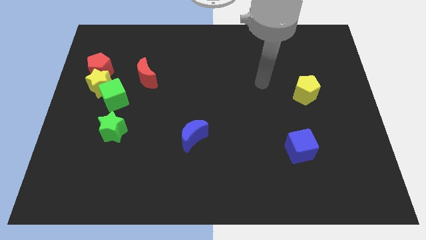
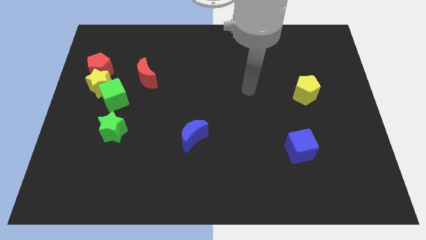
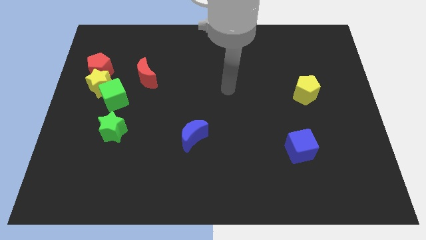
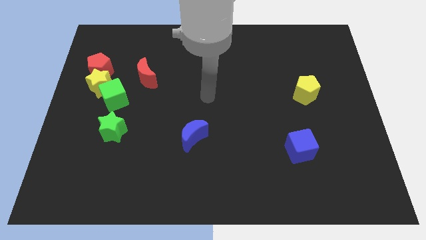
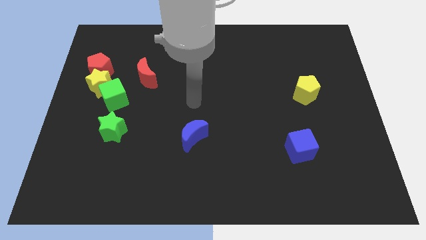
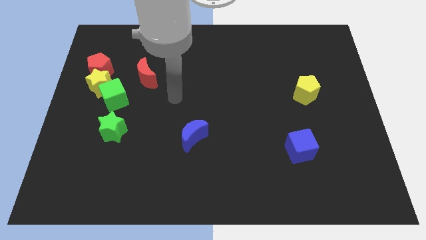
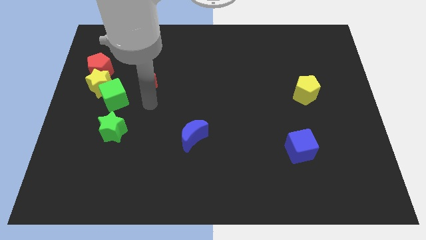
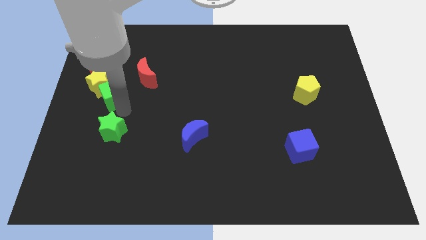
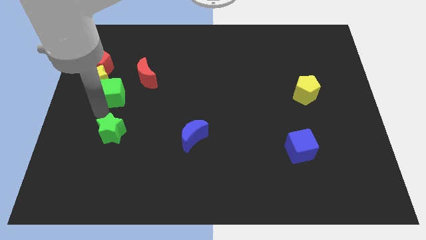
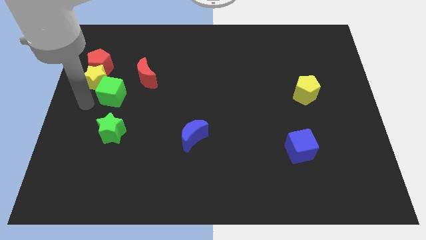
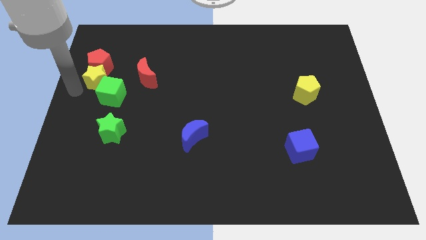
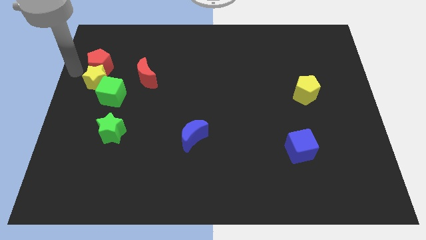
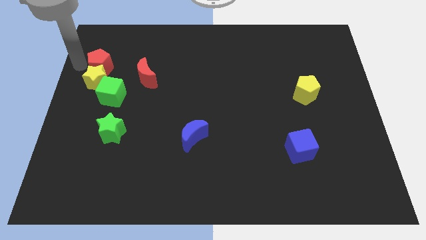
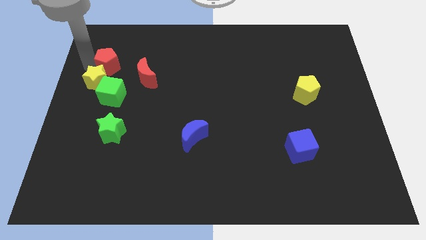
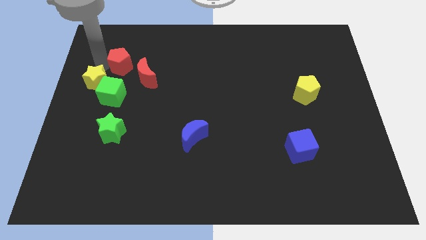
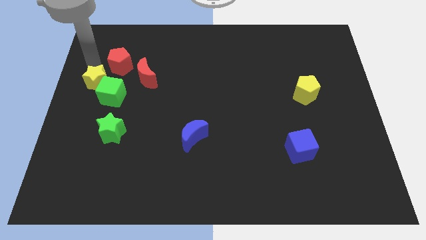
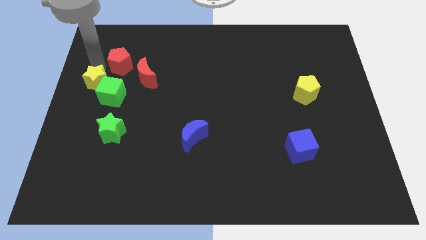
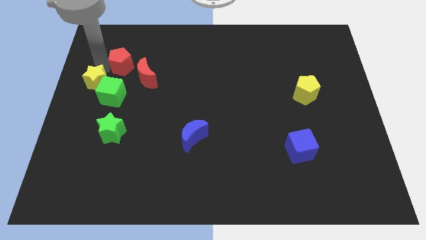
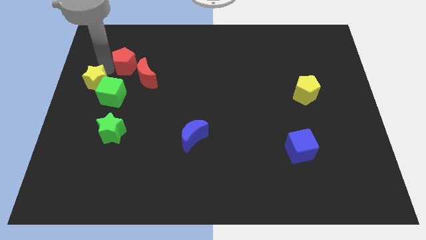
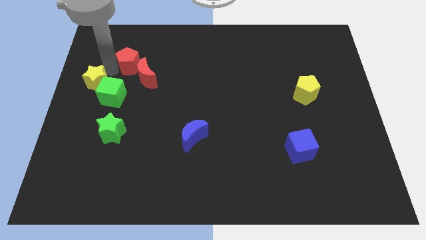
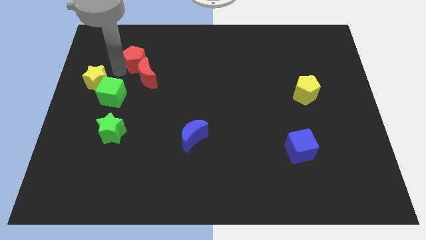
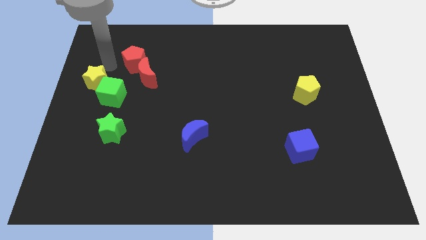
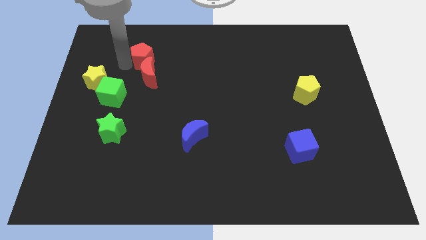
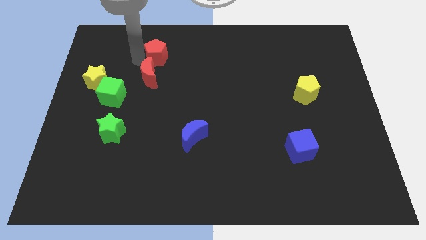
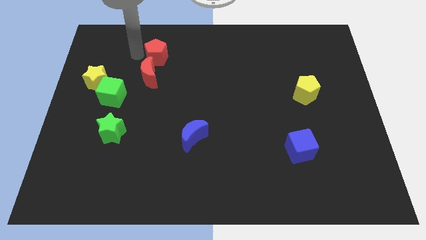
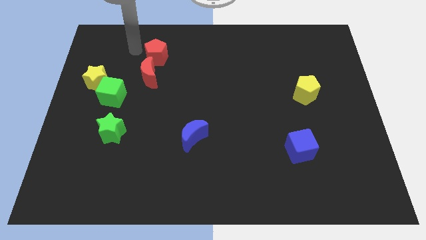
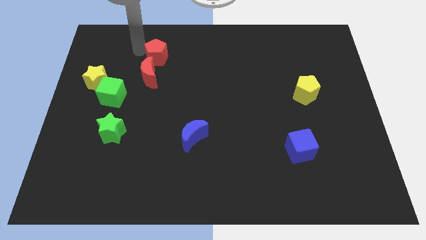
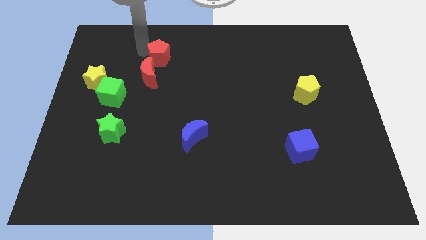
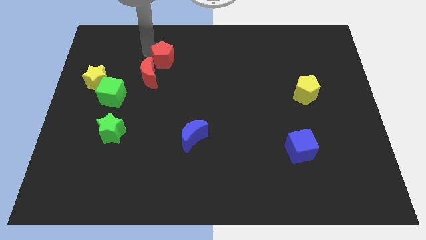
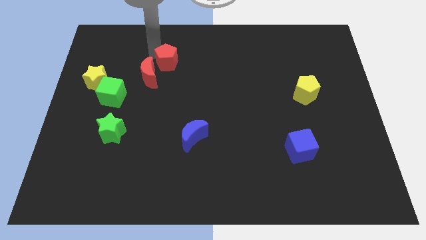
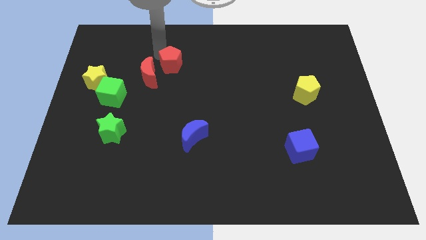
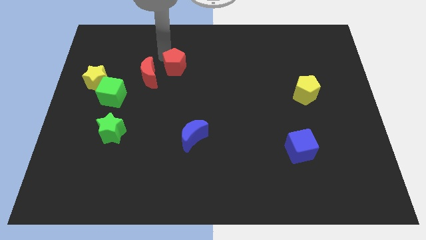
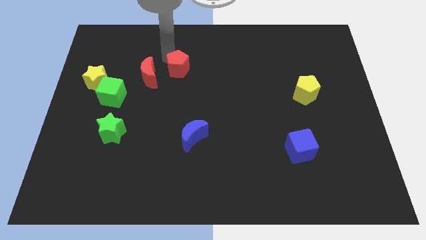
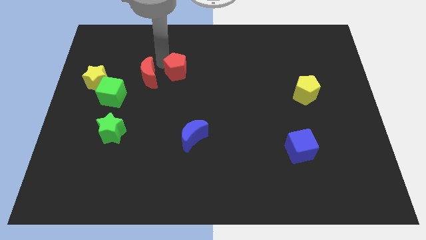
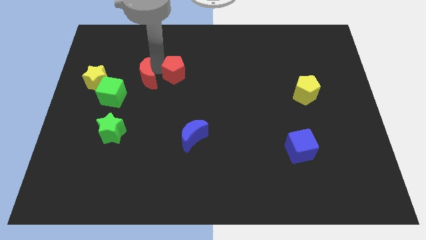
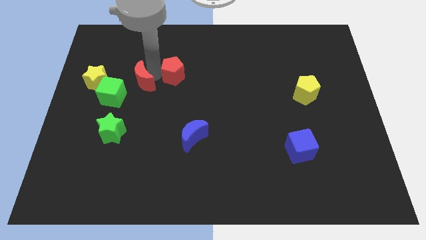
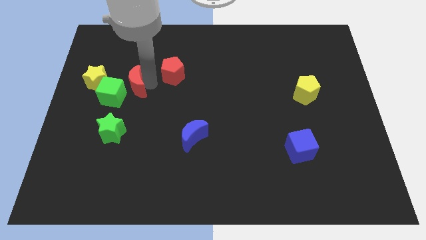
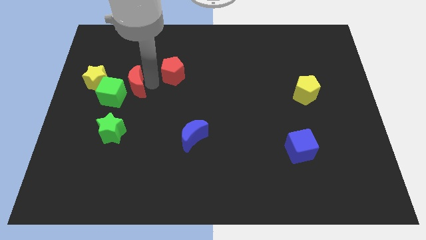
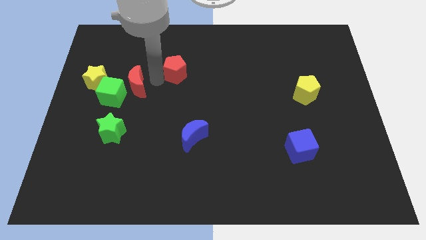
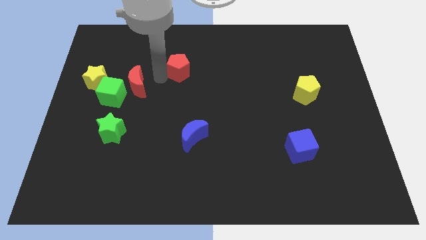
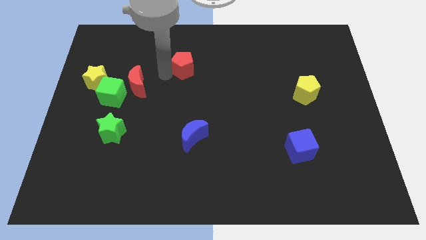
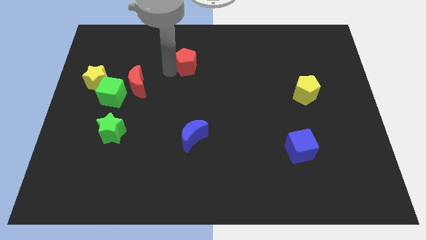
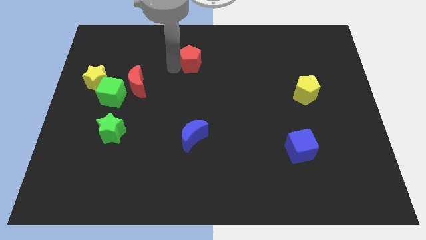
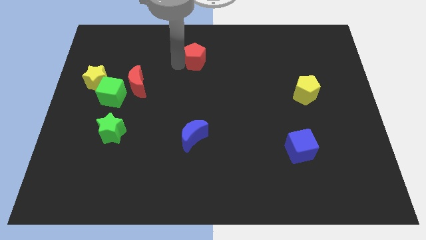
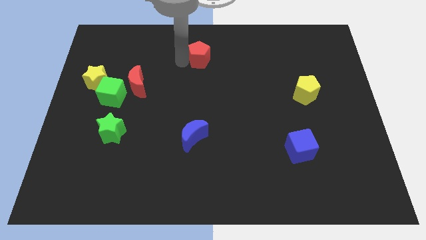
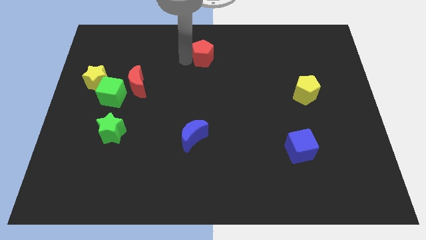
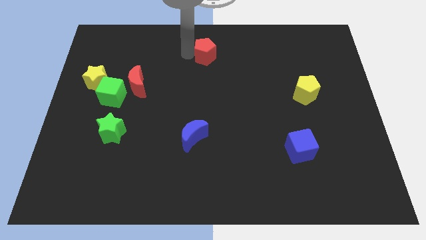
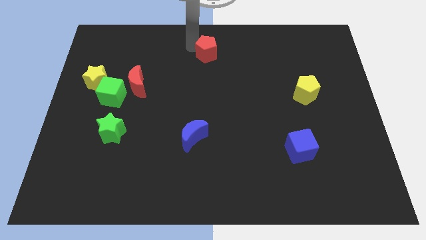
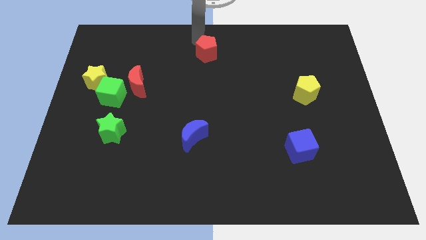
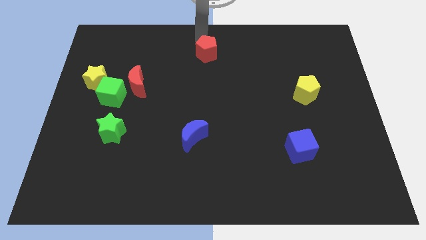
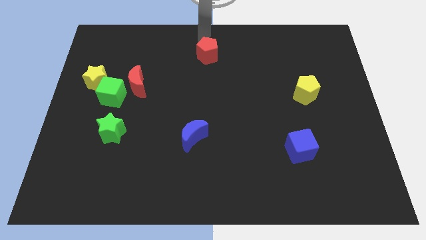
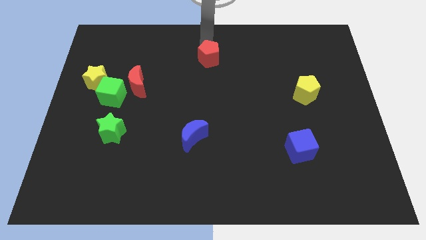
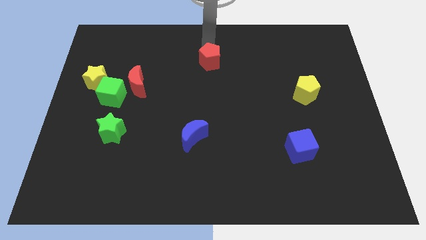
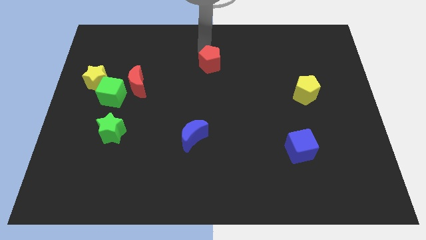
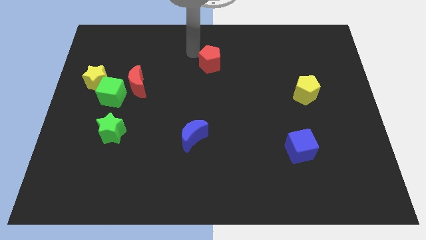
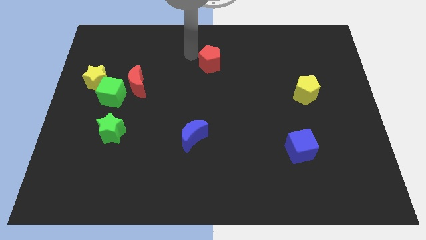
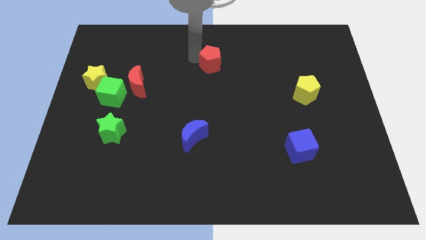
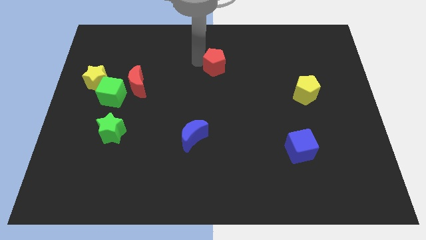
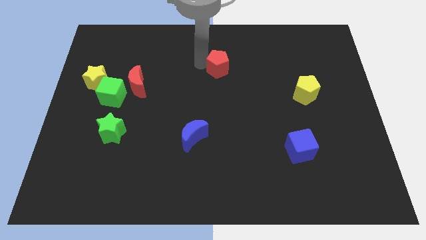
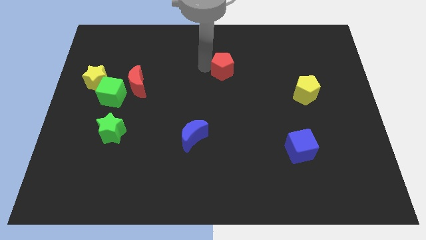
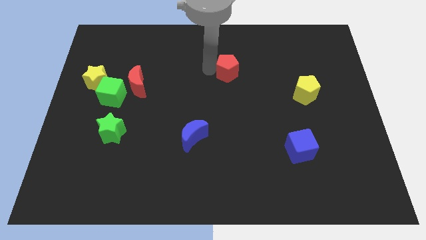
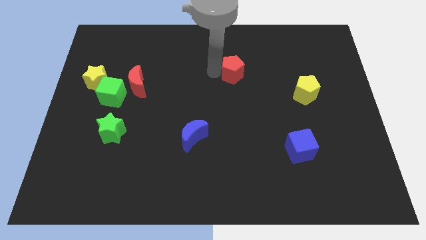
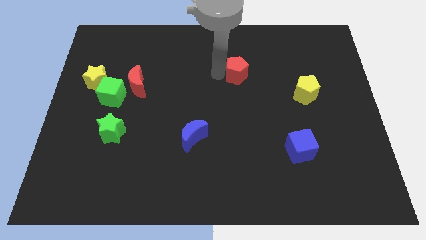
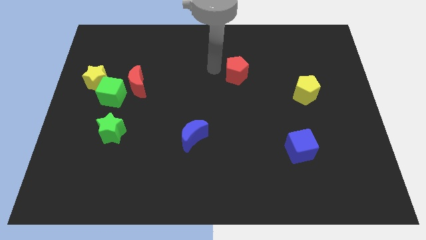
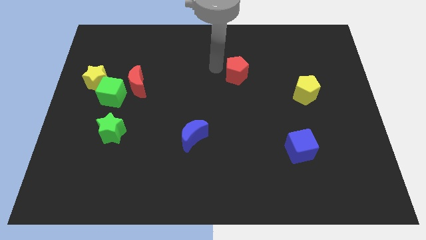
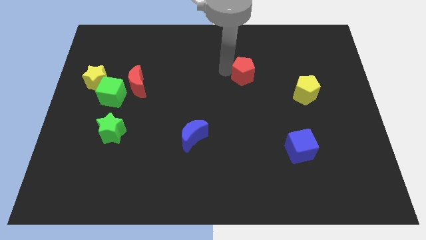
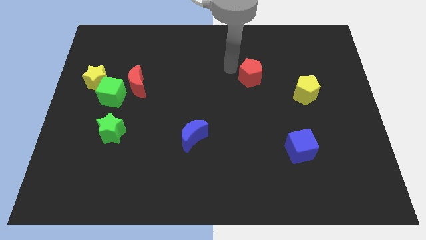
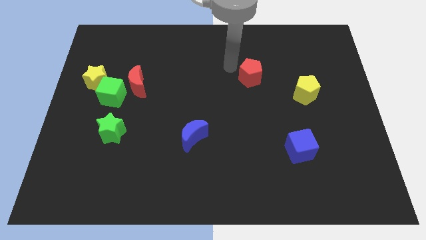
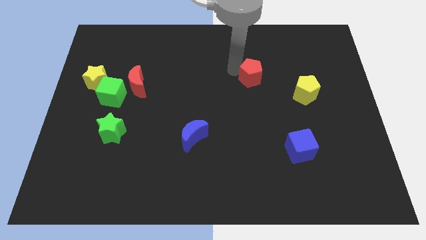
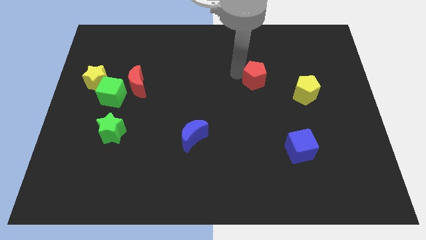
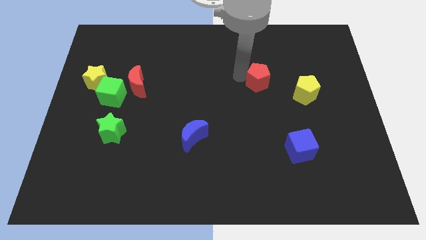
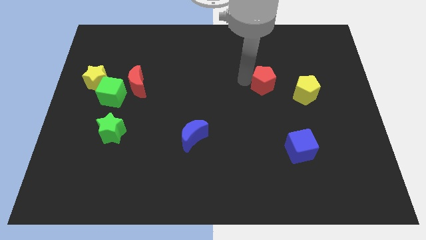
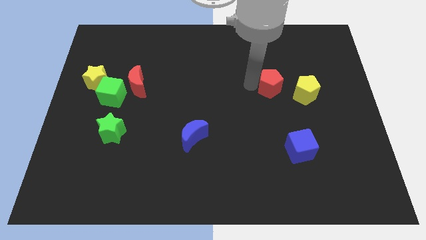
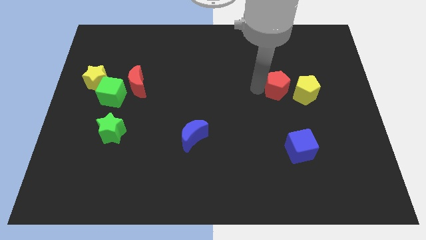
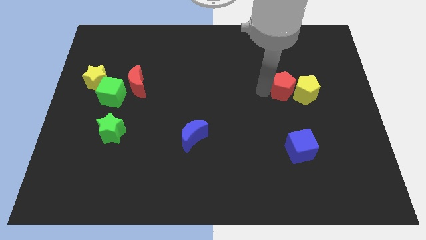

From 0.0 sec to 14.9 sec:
push the red pentagon towards the yellow pentagon
